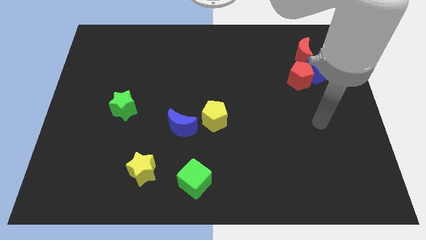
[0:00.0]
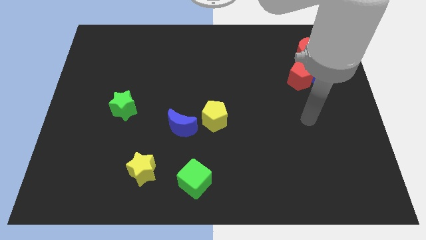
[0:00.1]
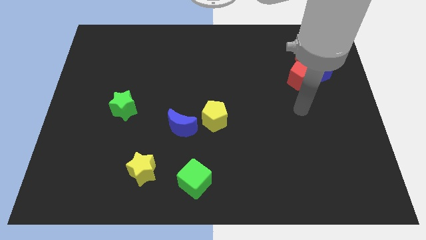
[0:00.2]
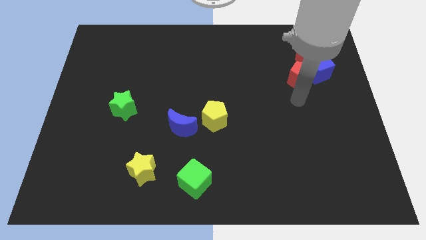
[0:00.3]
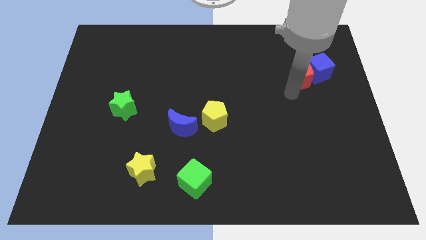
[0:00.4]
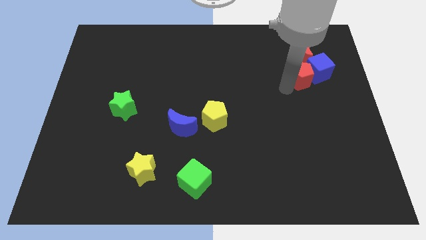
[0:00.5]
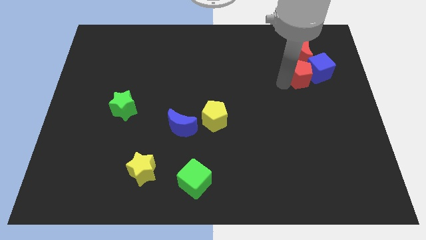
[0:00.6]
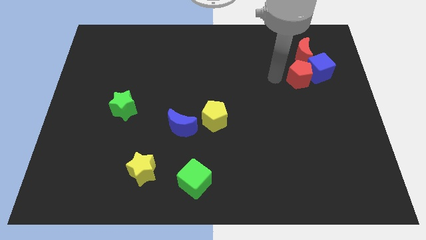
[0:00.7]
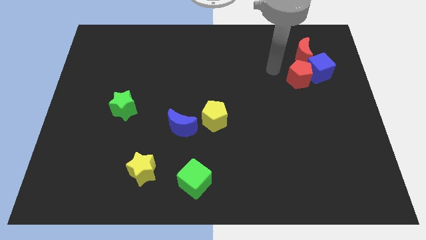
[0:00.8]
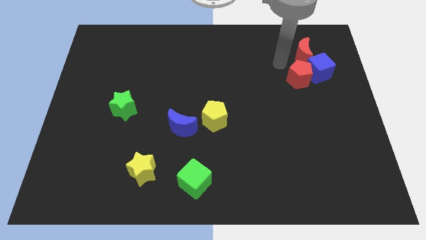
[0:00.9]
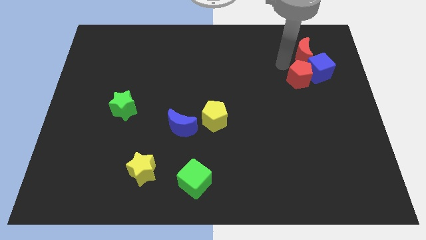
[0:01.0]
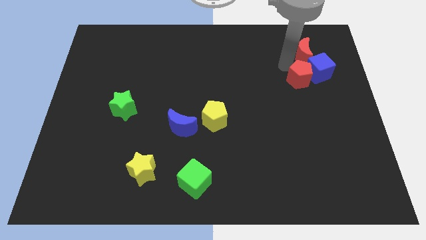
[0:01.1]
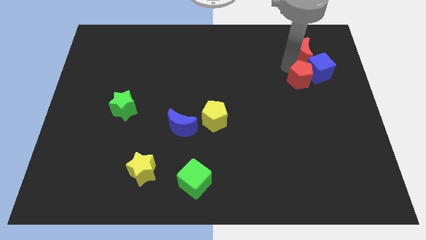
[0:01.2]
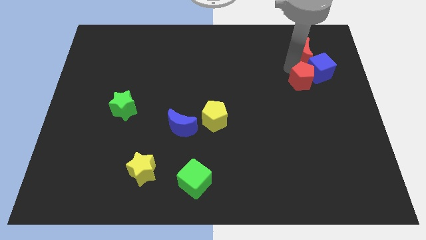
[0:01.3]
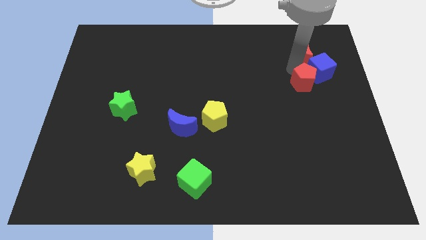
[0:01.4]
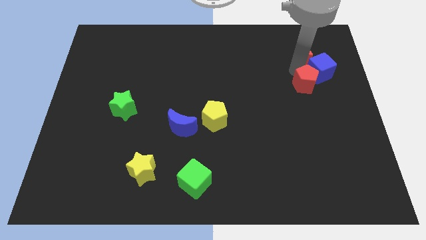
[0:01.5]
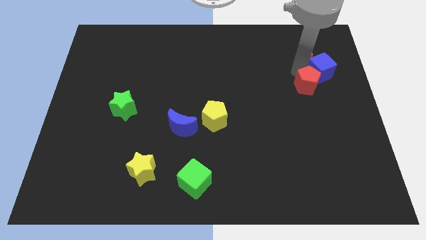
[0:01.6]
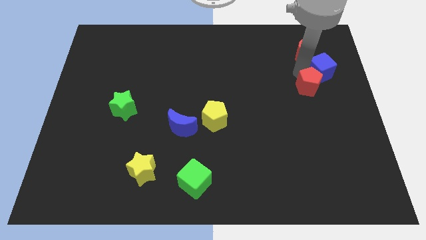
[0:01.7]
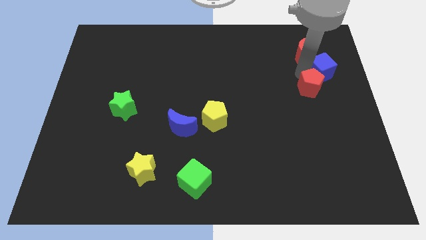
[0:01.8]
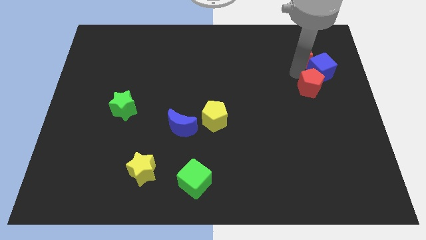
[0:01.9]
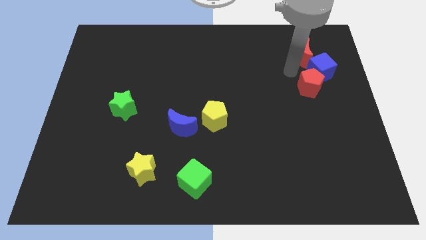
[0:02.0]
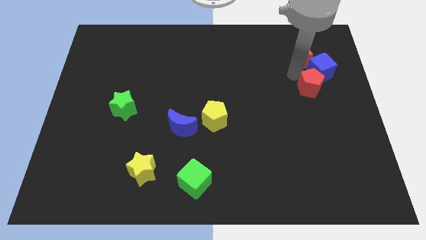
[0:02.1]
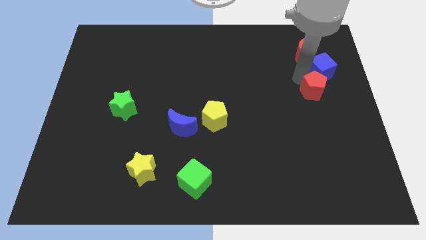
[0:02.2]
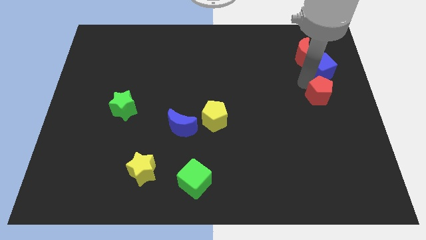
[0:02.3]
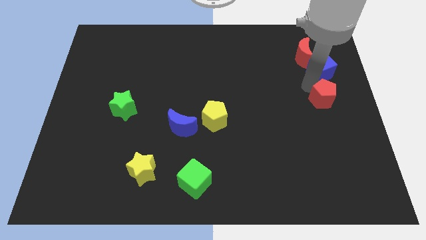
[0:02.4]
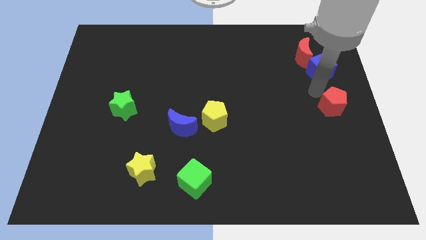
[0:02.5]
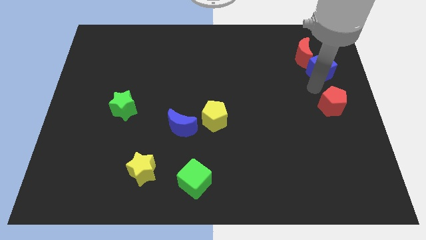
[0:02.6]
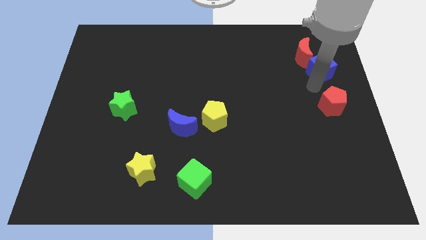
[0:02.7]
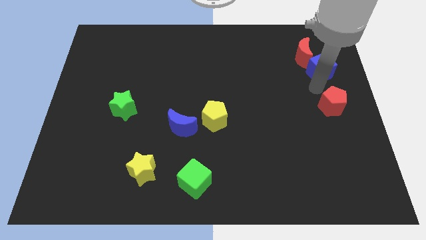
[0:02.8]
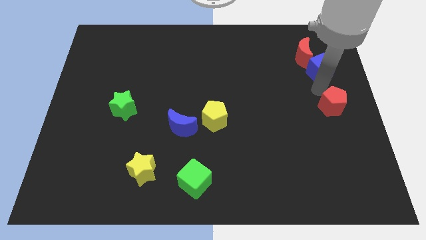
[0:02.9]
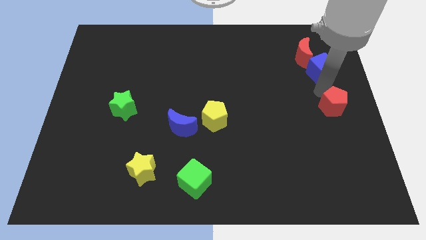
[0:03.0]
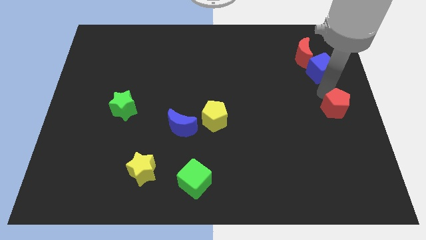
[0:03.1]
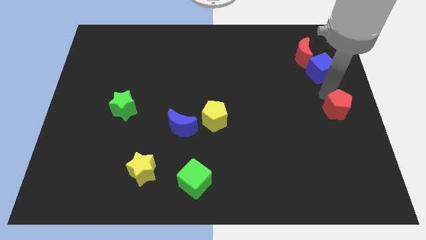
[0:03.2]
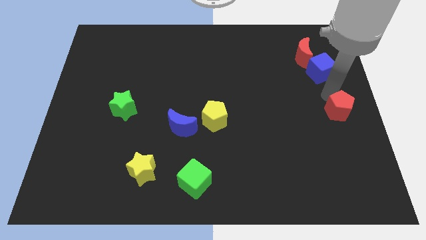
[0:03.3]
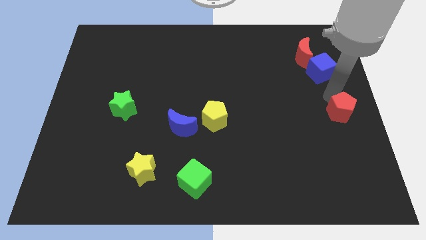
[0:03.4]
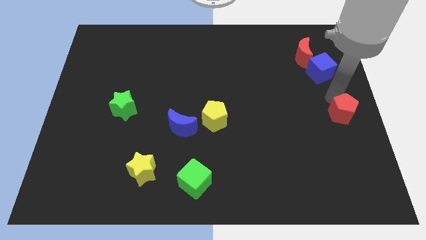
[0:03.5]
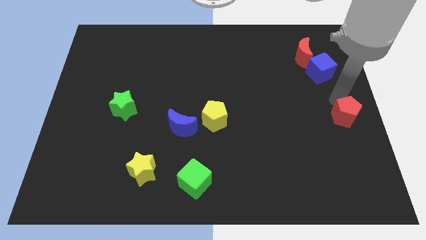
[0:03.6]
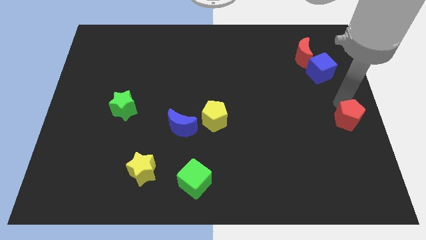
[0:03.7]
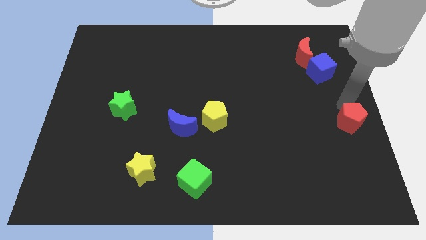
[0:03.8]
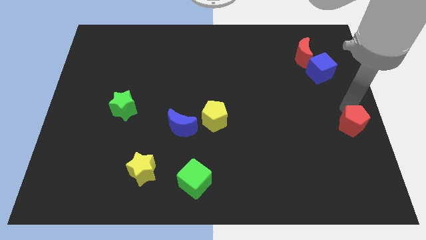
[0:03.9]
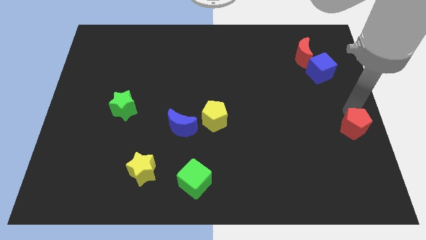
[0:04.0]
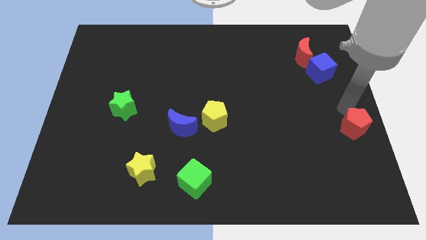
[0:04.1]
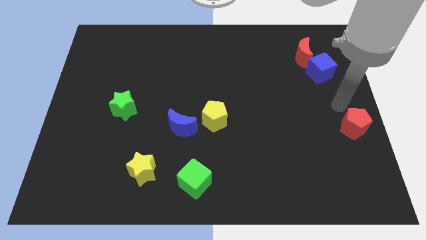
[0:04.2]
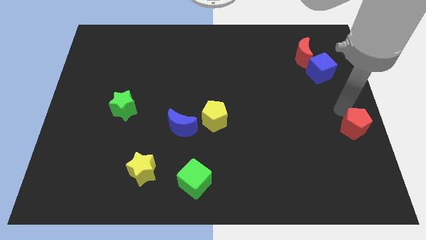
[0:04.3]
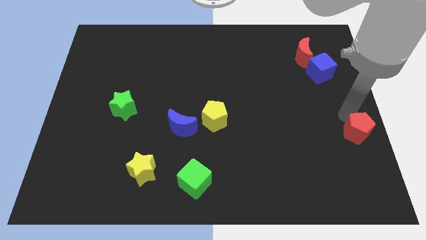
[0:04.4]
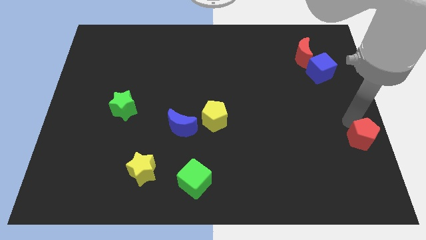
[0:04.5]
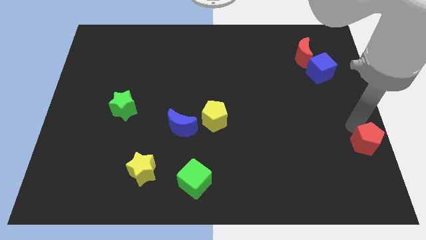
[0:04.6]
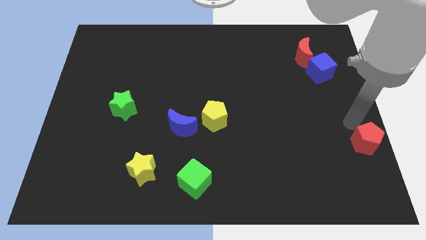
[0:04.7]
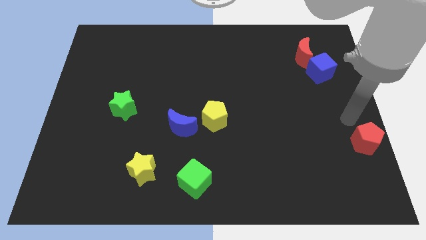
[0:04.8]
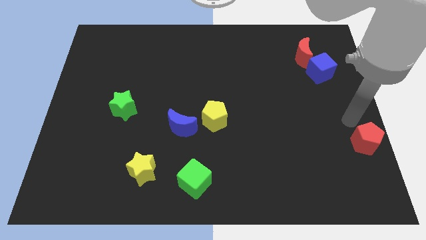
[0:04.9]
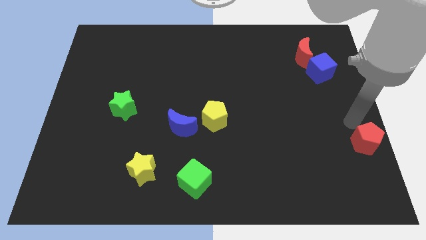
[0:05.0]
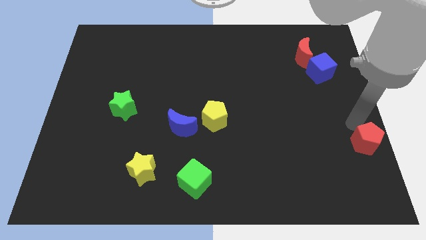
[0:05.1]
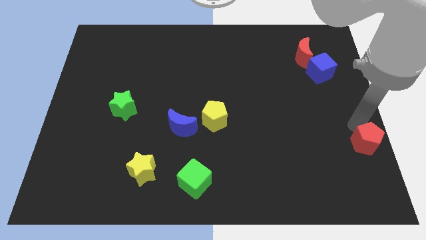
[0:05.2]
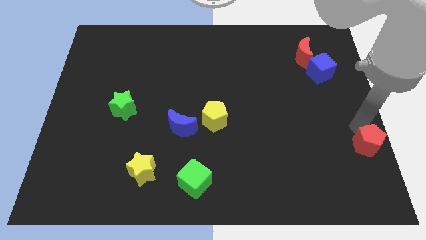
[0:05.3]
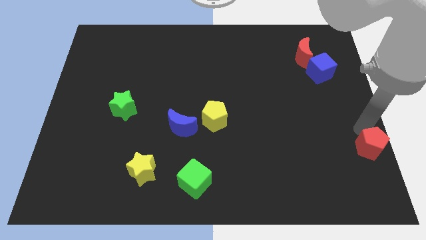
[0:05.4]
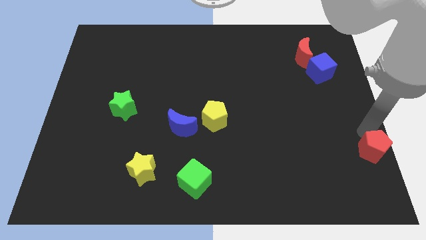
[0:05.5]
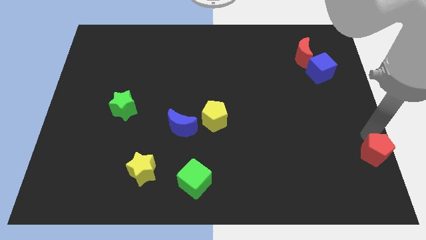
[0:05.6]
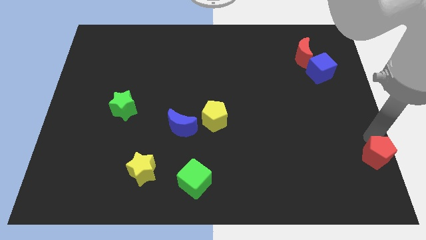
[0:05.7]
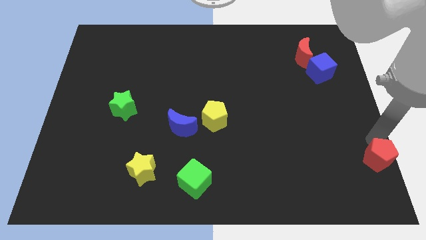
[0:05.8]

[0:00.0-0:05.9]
put the red pentagon to the bottom right of the board
